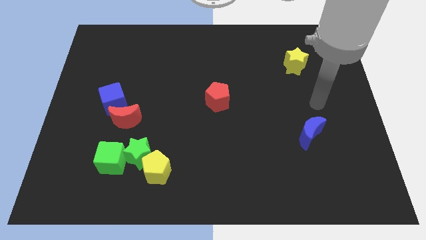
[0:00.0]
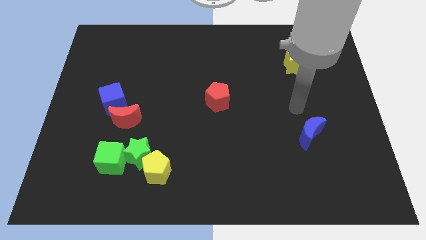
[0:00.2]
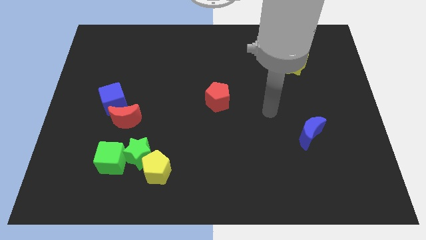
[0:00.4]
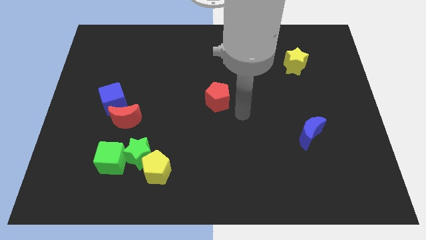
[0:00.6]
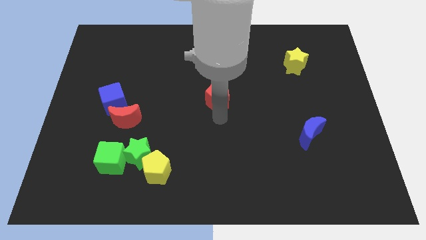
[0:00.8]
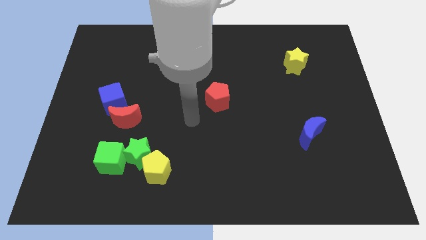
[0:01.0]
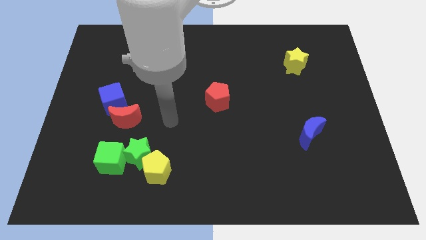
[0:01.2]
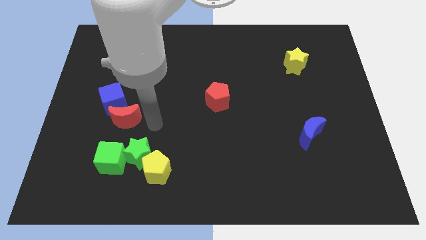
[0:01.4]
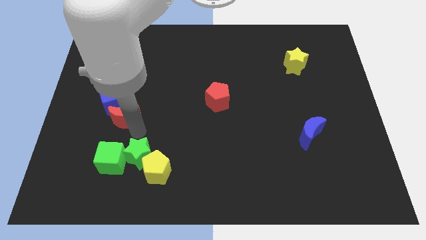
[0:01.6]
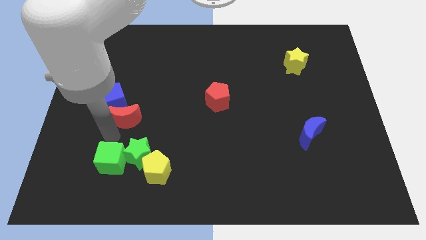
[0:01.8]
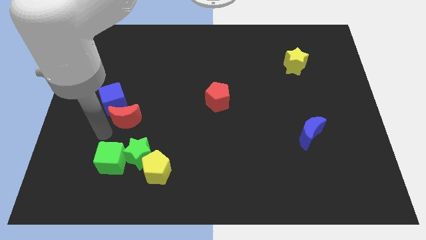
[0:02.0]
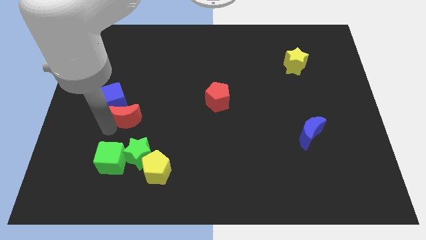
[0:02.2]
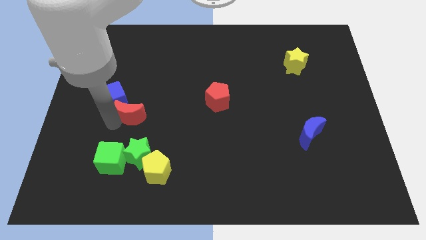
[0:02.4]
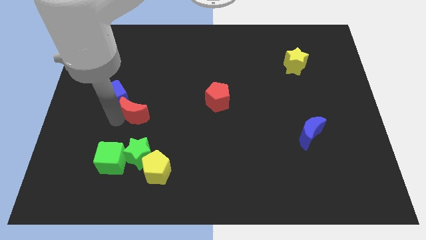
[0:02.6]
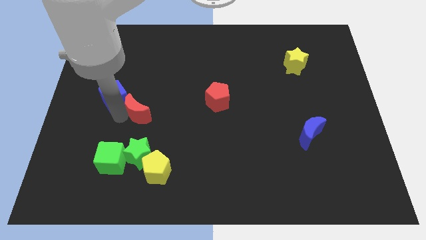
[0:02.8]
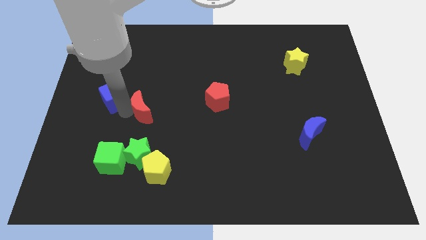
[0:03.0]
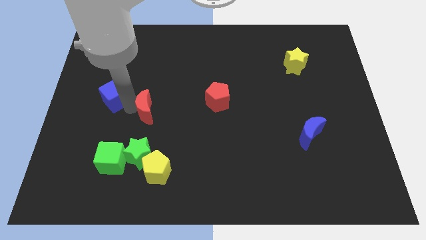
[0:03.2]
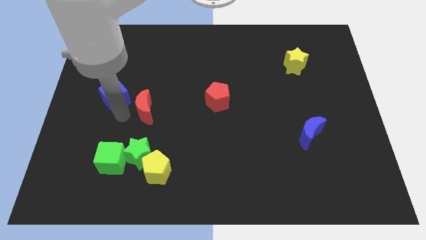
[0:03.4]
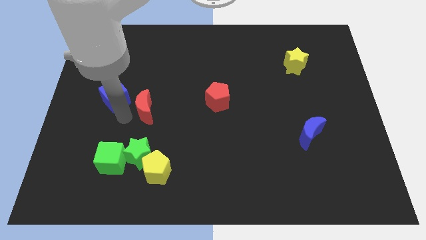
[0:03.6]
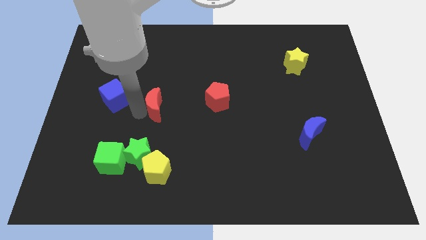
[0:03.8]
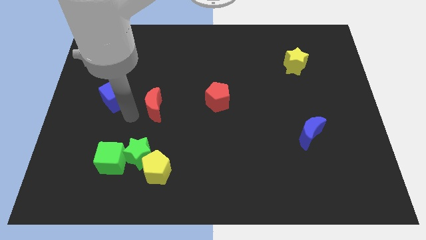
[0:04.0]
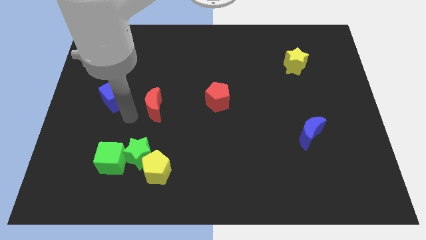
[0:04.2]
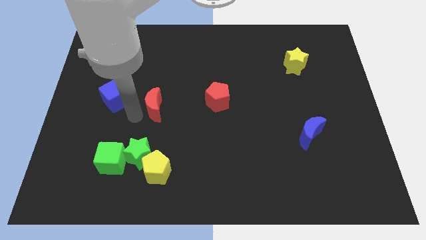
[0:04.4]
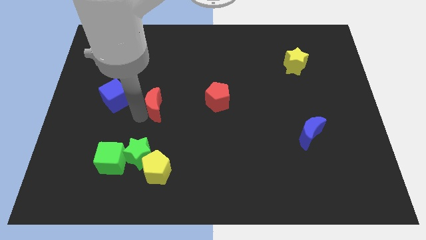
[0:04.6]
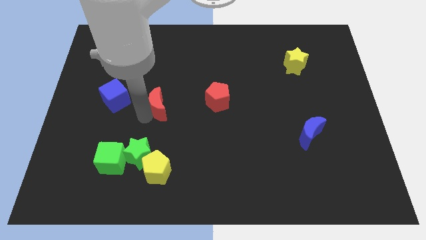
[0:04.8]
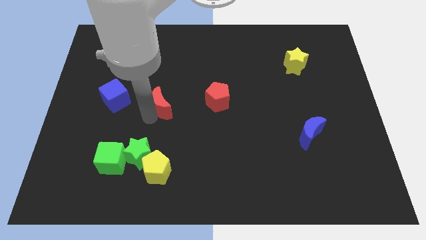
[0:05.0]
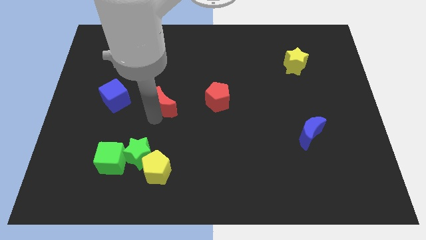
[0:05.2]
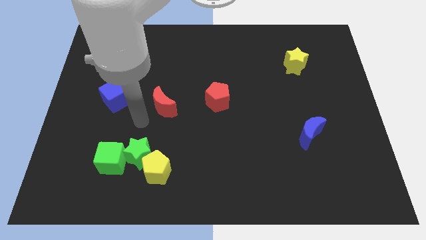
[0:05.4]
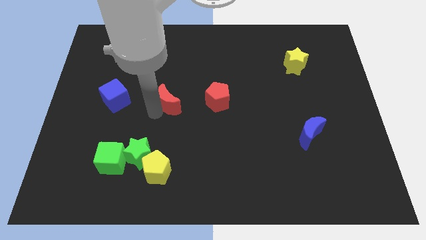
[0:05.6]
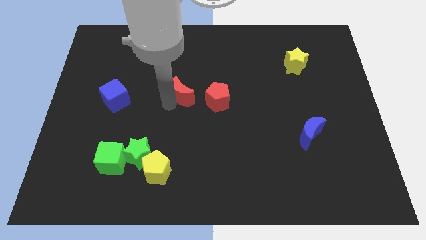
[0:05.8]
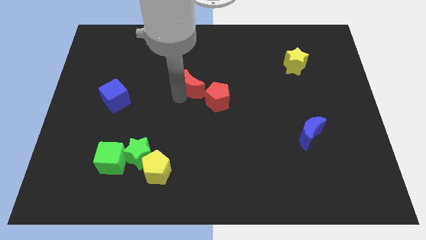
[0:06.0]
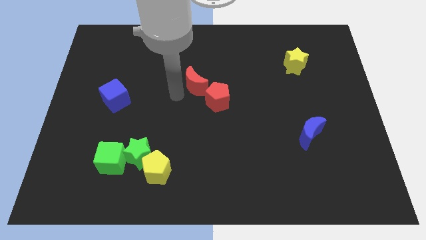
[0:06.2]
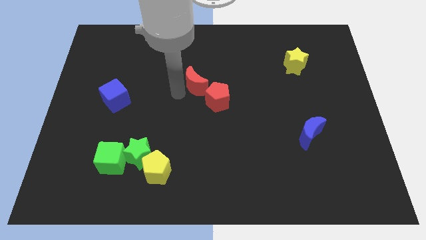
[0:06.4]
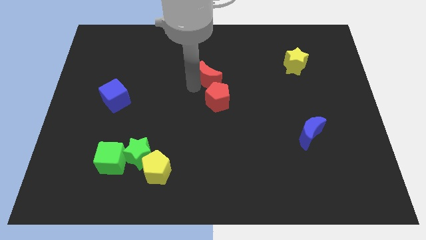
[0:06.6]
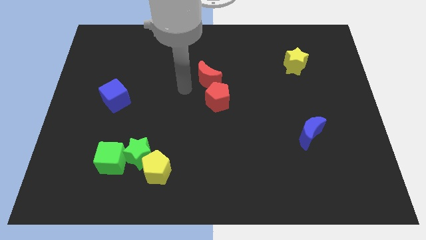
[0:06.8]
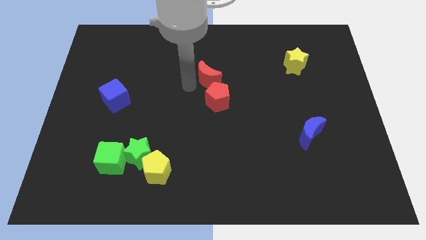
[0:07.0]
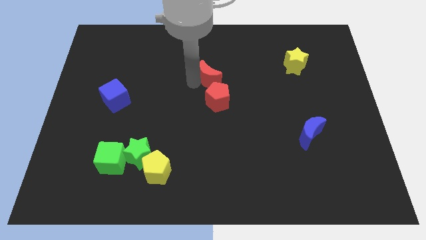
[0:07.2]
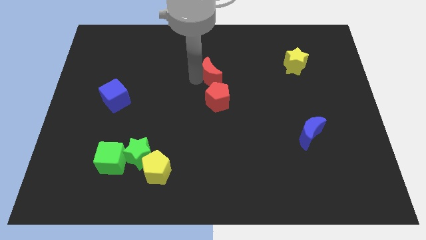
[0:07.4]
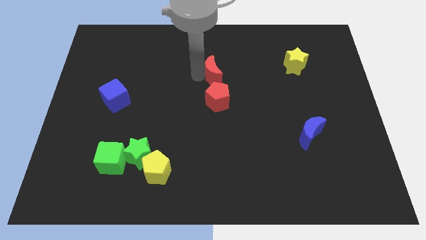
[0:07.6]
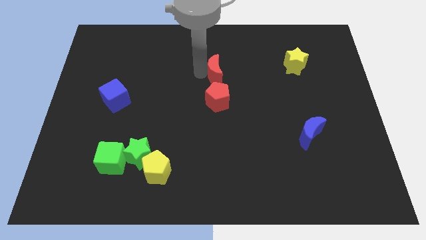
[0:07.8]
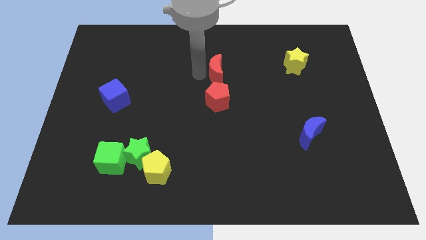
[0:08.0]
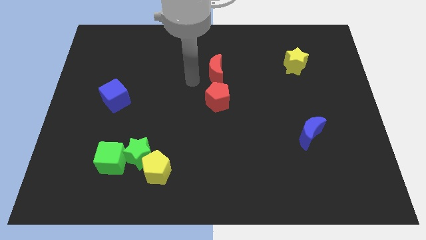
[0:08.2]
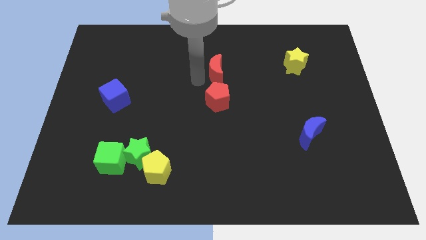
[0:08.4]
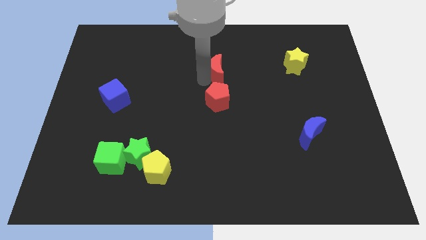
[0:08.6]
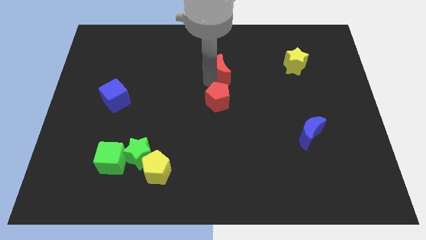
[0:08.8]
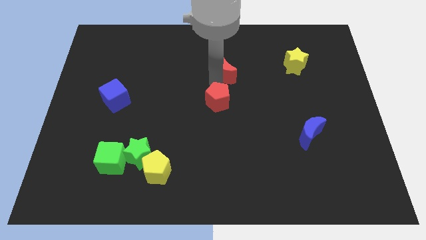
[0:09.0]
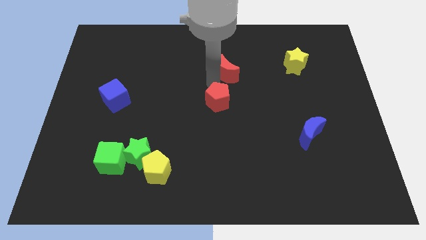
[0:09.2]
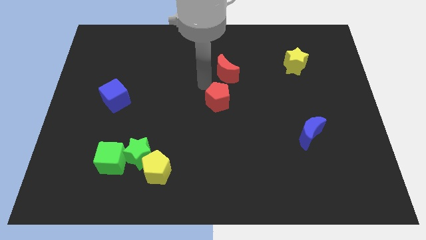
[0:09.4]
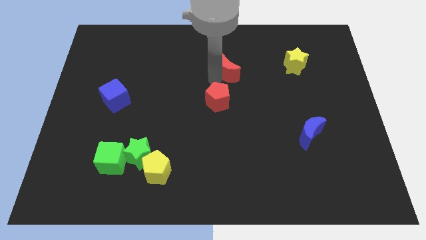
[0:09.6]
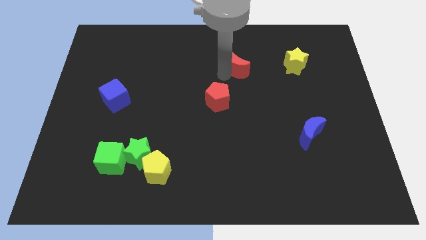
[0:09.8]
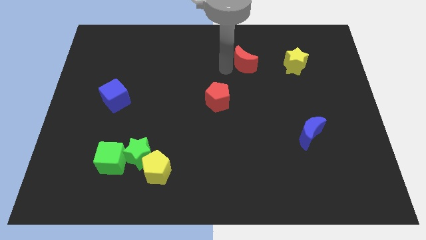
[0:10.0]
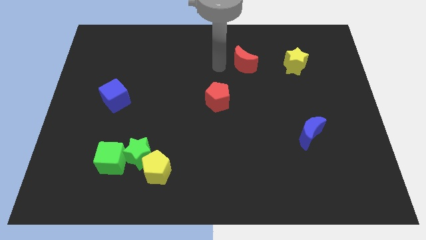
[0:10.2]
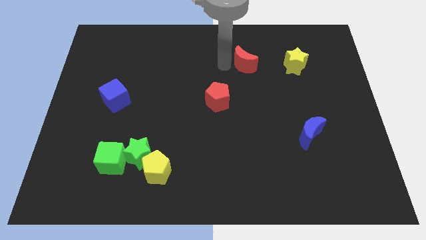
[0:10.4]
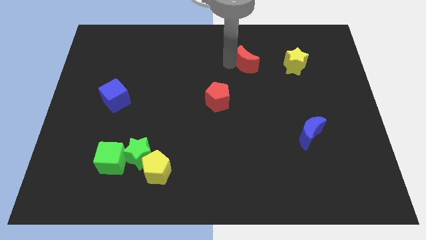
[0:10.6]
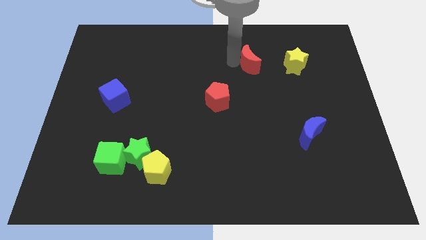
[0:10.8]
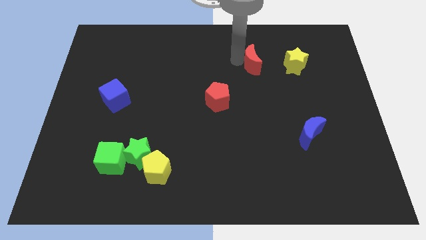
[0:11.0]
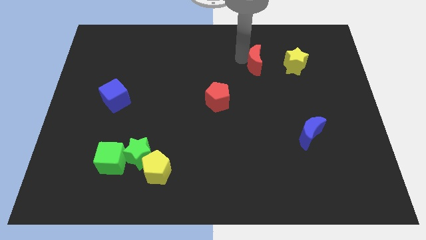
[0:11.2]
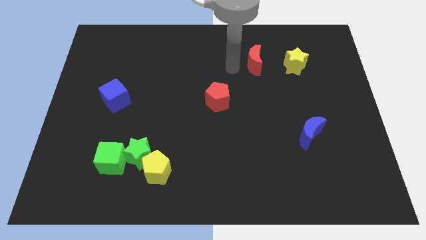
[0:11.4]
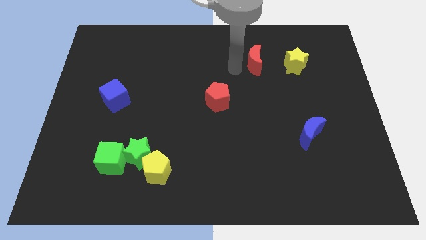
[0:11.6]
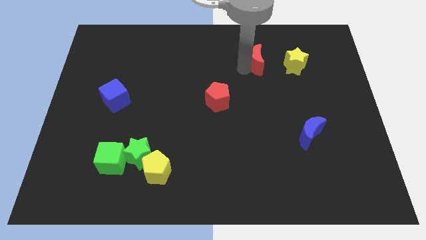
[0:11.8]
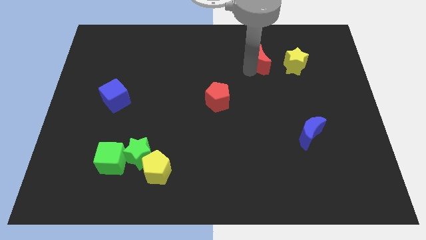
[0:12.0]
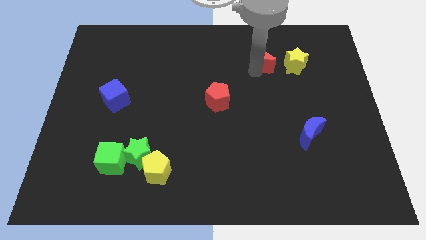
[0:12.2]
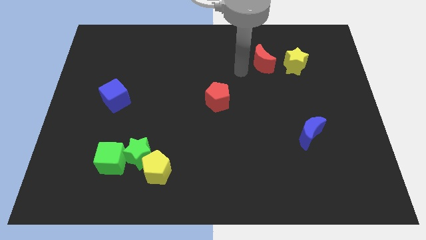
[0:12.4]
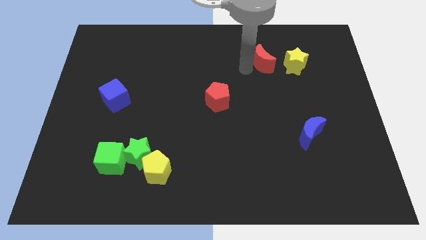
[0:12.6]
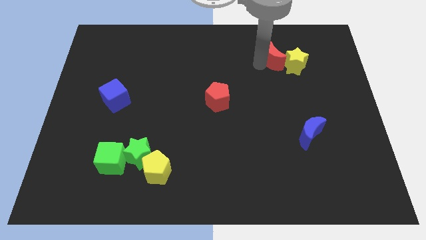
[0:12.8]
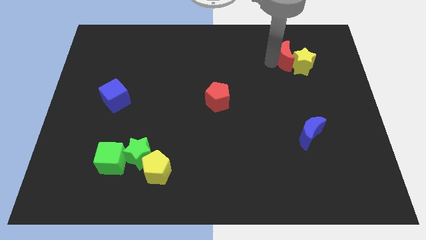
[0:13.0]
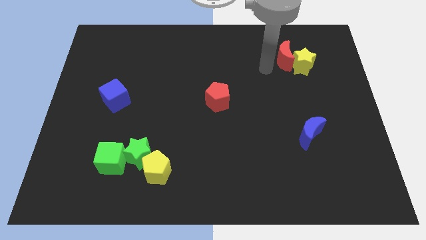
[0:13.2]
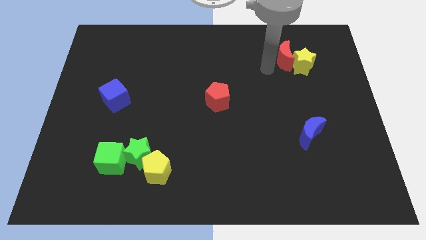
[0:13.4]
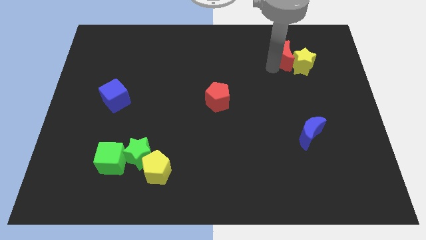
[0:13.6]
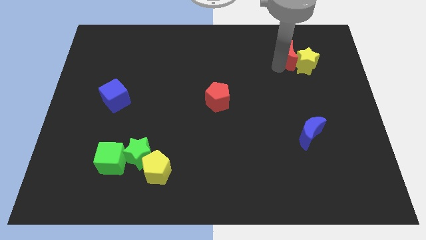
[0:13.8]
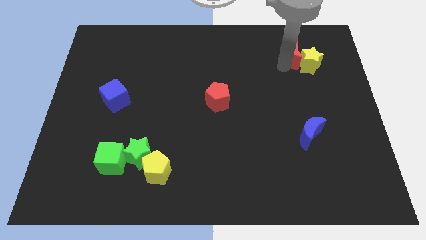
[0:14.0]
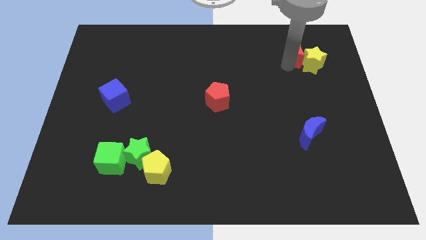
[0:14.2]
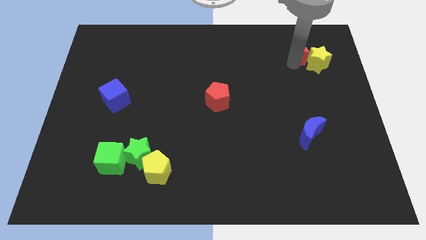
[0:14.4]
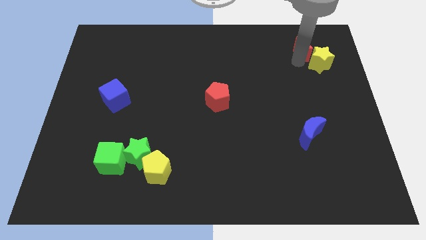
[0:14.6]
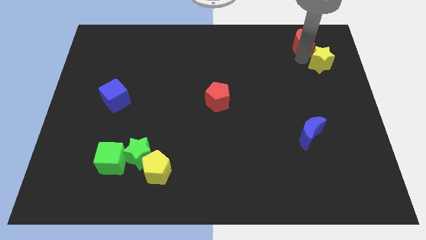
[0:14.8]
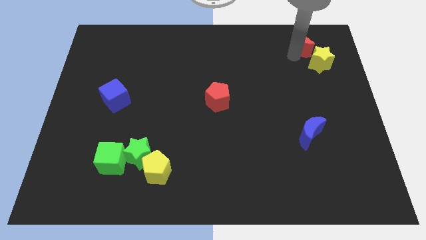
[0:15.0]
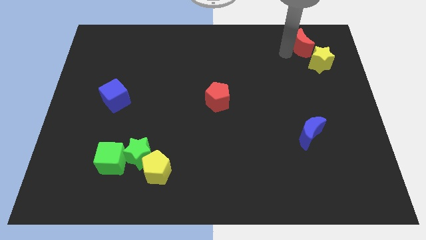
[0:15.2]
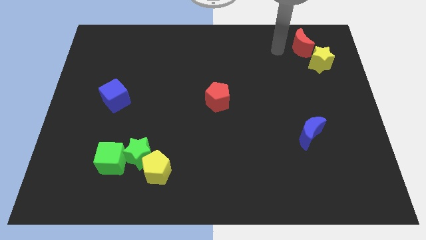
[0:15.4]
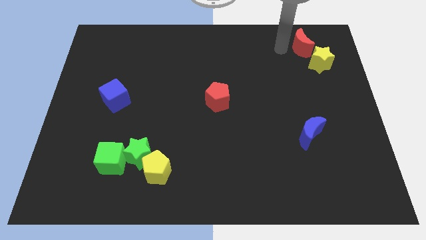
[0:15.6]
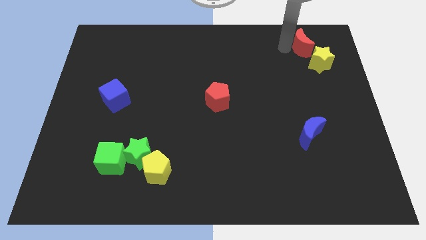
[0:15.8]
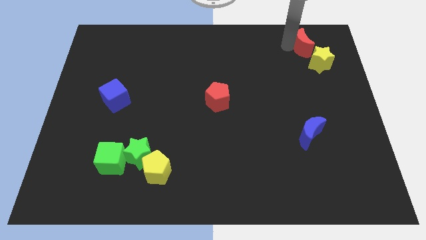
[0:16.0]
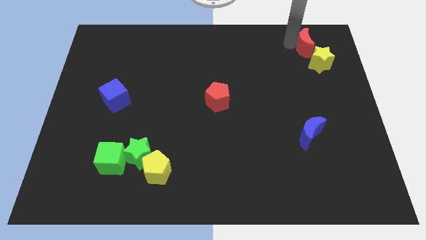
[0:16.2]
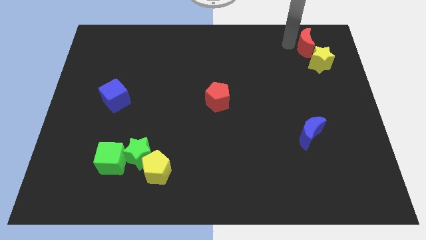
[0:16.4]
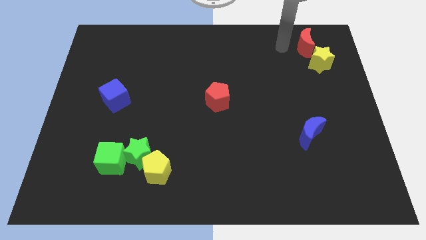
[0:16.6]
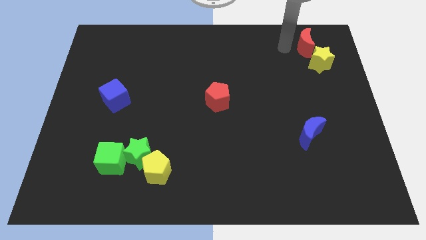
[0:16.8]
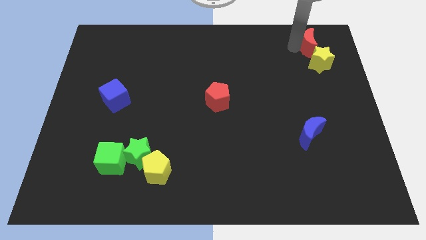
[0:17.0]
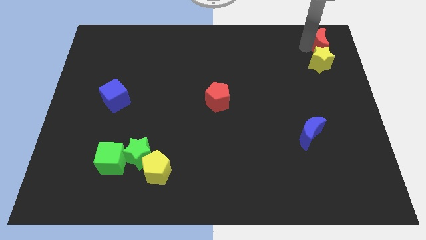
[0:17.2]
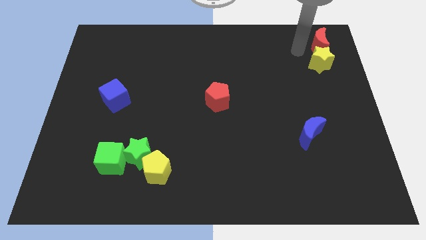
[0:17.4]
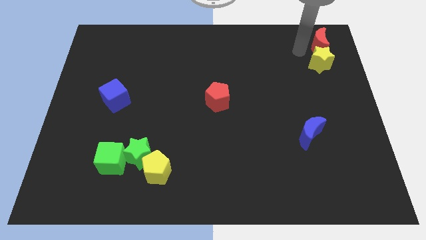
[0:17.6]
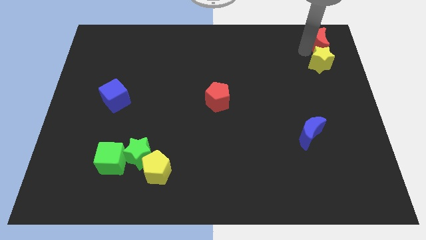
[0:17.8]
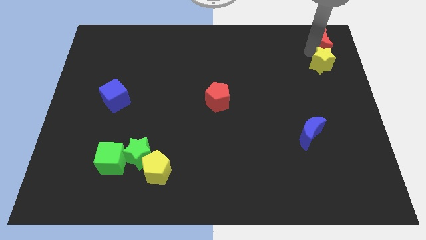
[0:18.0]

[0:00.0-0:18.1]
slide the red moon to the top right corner
